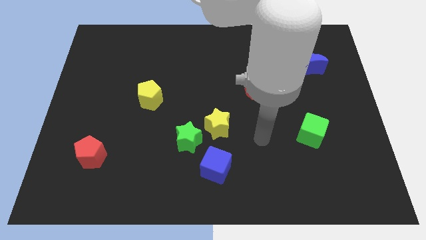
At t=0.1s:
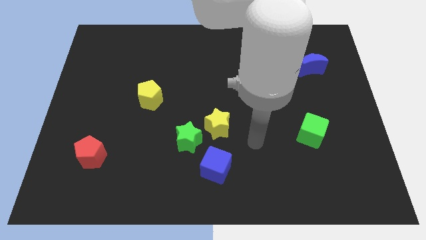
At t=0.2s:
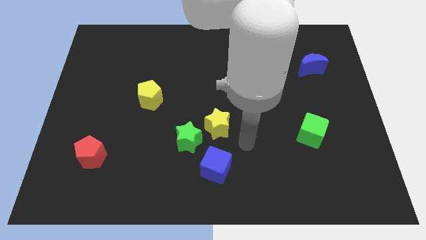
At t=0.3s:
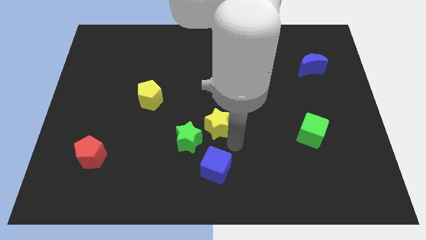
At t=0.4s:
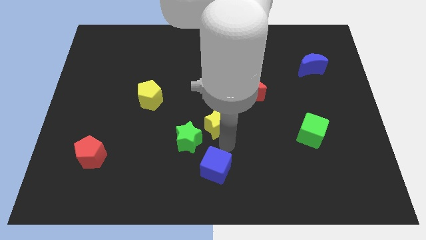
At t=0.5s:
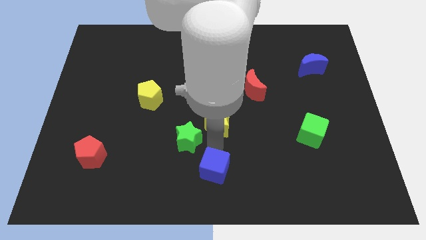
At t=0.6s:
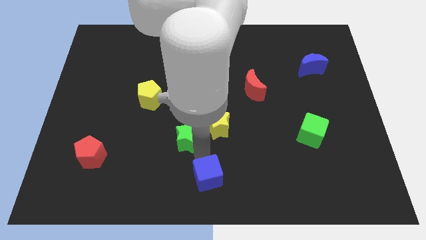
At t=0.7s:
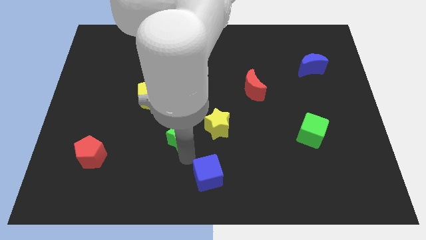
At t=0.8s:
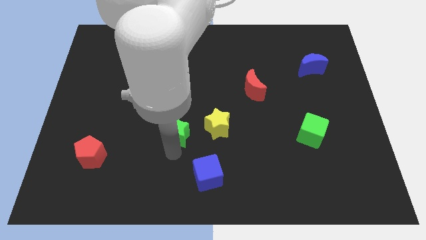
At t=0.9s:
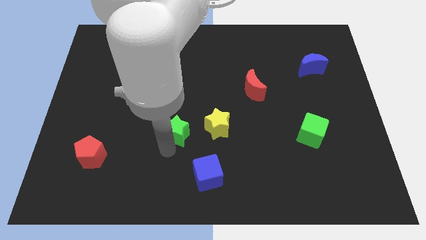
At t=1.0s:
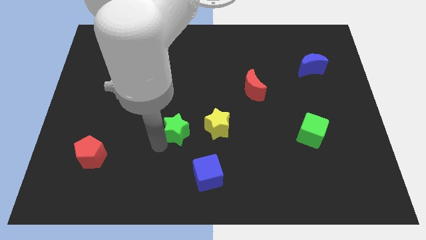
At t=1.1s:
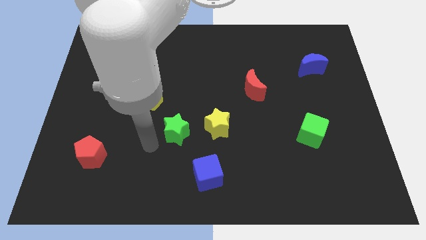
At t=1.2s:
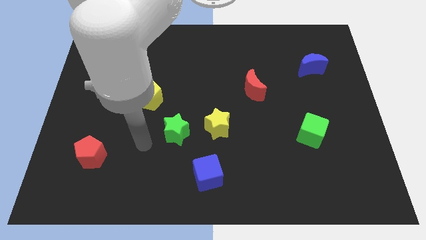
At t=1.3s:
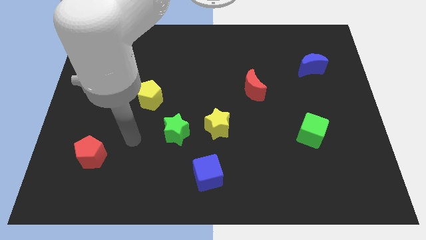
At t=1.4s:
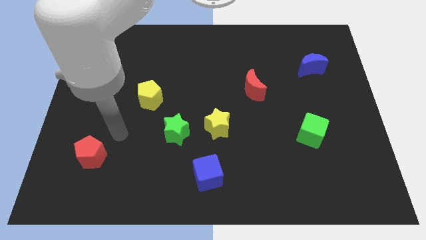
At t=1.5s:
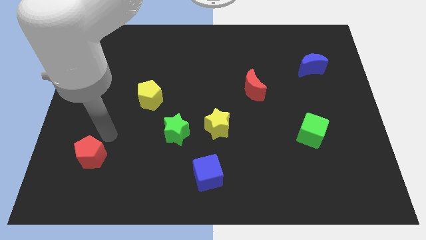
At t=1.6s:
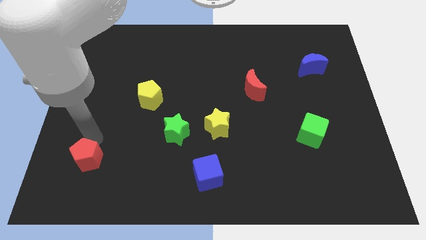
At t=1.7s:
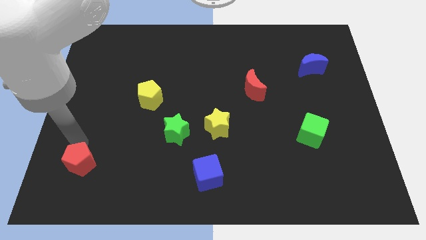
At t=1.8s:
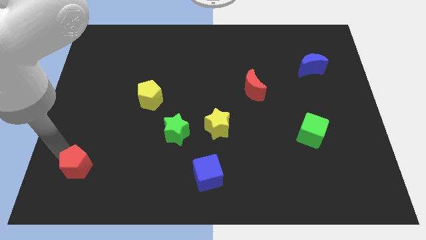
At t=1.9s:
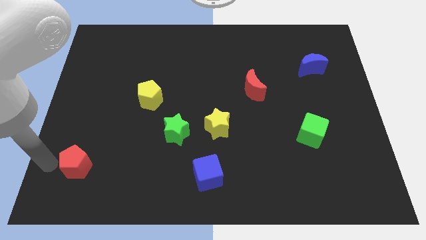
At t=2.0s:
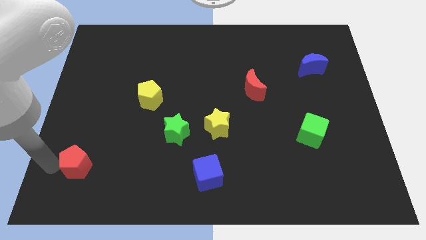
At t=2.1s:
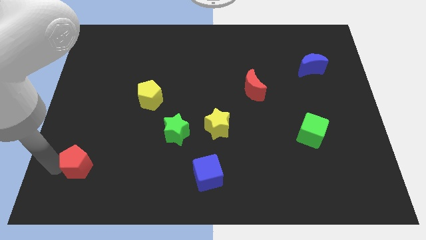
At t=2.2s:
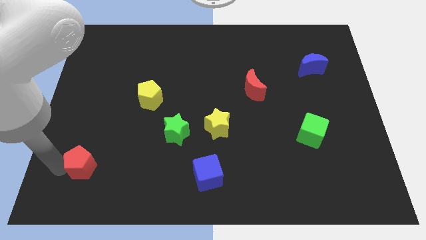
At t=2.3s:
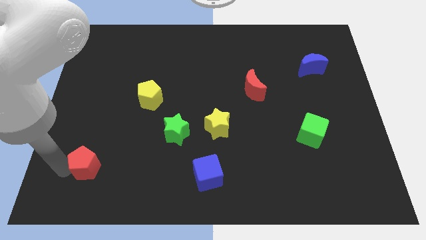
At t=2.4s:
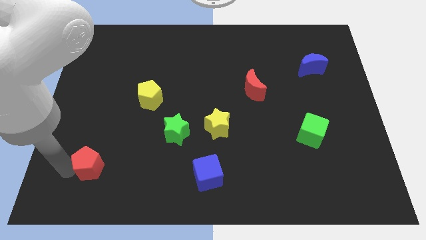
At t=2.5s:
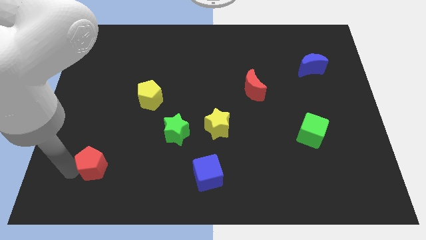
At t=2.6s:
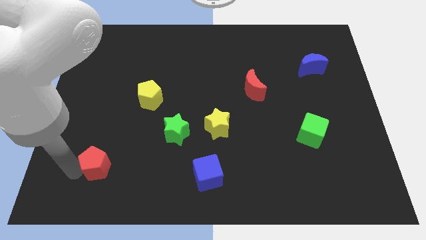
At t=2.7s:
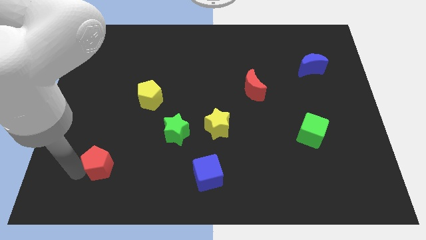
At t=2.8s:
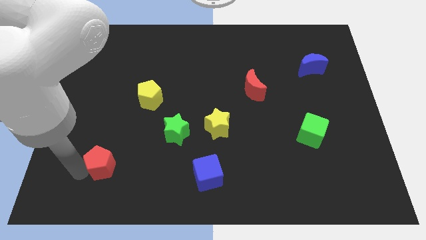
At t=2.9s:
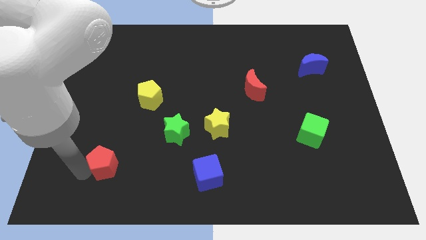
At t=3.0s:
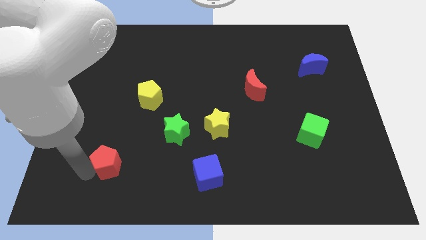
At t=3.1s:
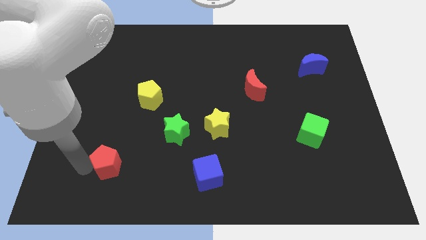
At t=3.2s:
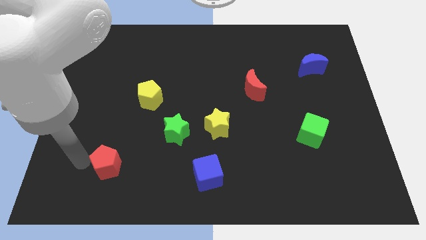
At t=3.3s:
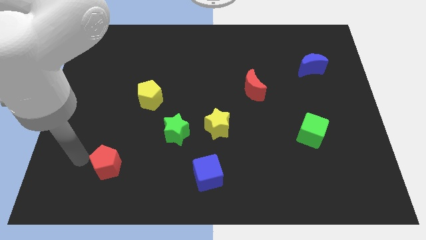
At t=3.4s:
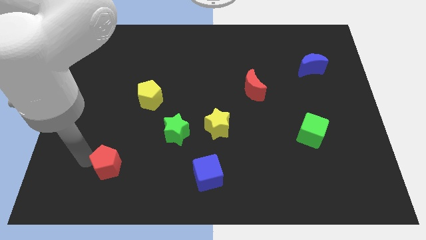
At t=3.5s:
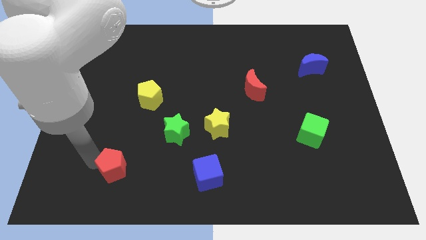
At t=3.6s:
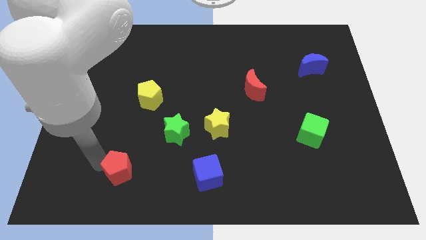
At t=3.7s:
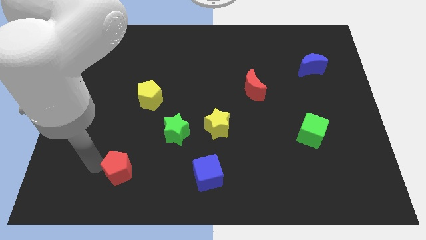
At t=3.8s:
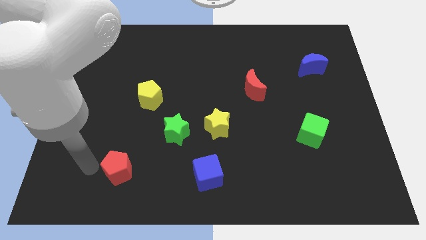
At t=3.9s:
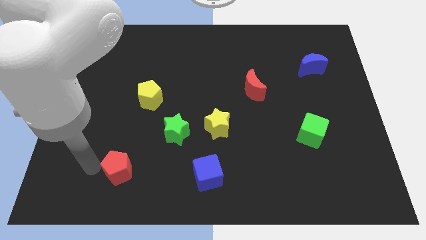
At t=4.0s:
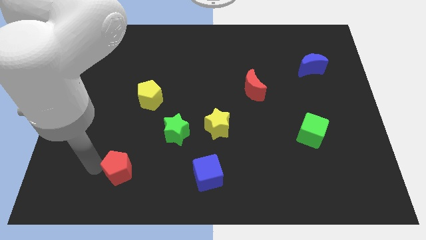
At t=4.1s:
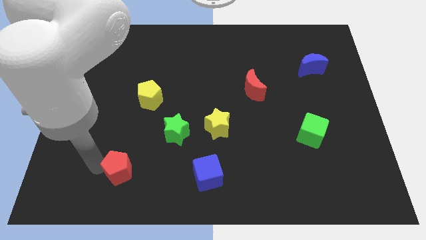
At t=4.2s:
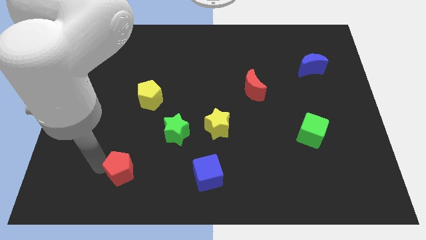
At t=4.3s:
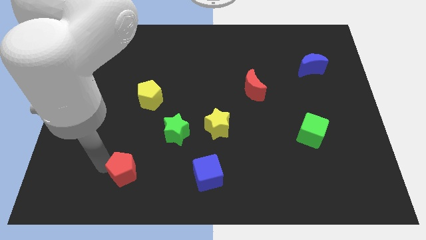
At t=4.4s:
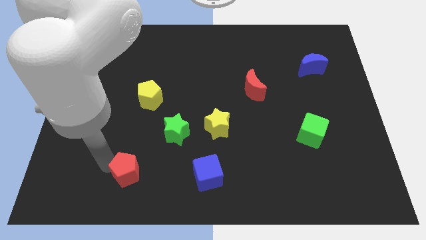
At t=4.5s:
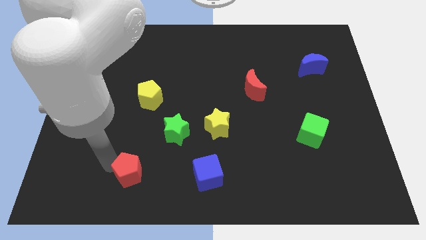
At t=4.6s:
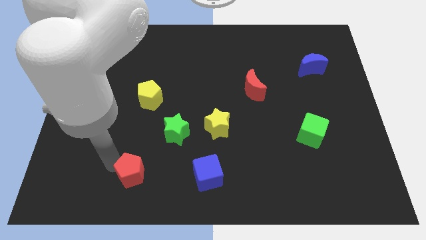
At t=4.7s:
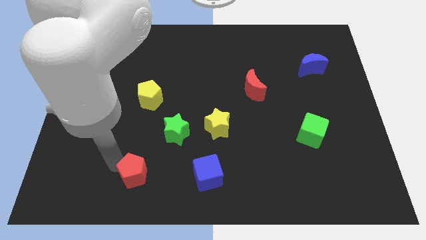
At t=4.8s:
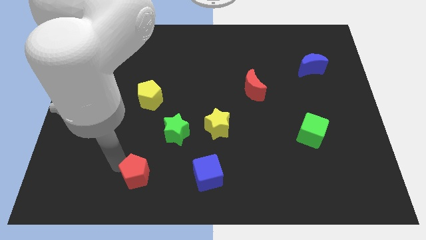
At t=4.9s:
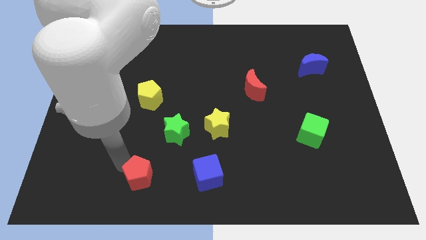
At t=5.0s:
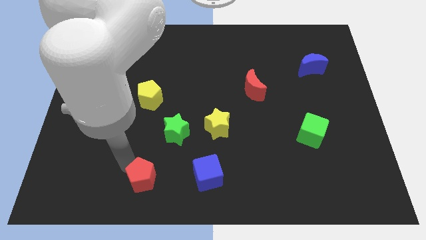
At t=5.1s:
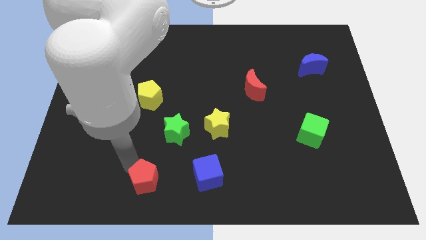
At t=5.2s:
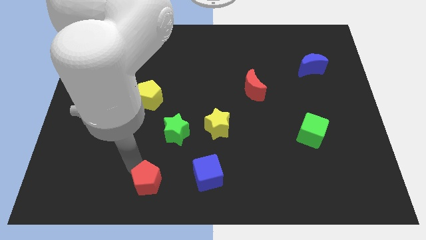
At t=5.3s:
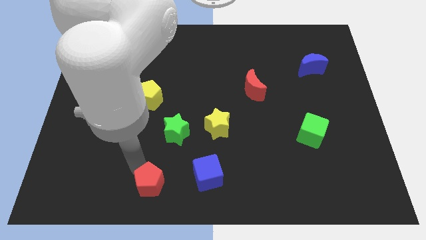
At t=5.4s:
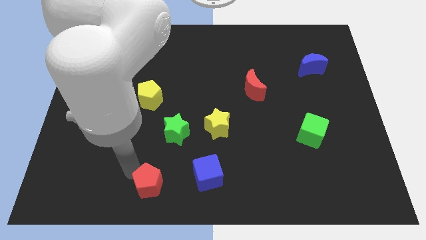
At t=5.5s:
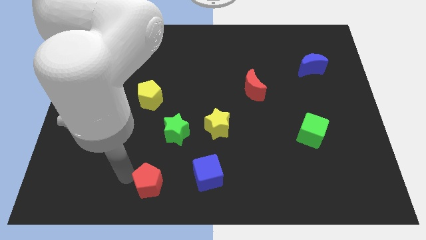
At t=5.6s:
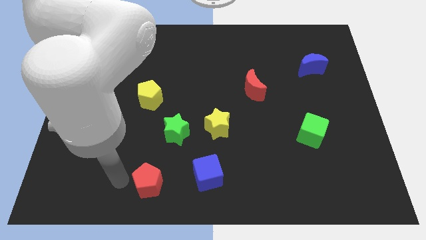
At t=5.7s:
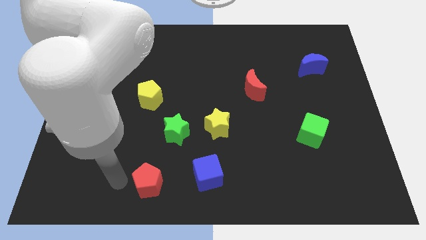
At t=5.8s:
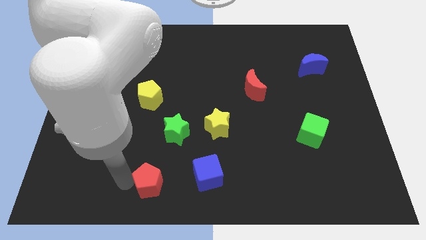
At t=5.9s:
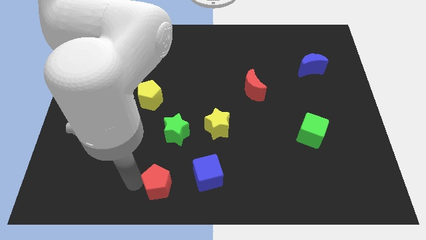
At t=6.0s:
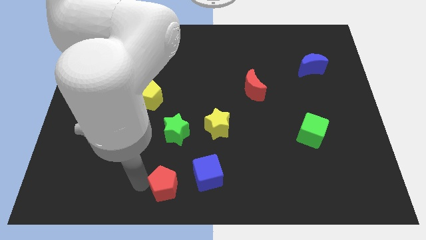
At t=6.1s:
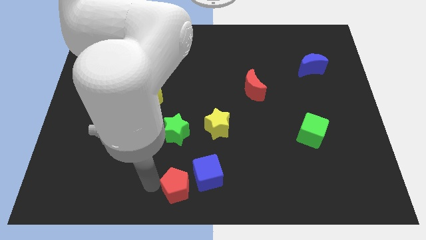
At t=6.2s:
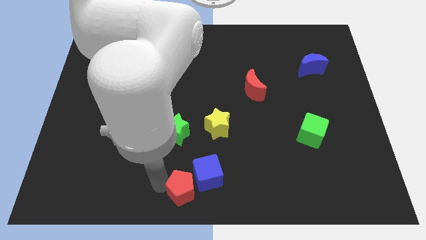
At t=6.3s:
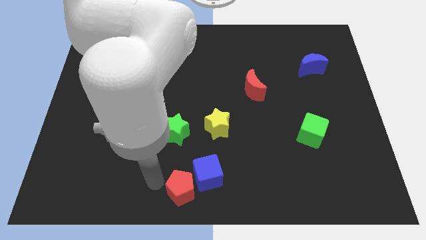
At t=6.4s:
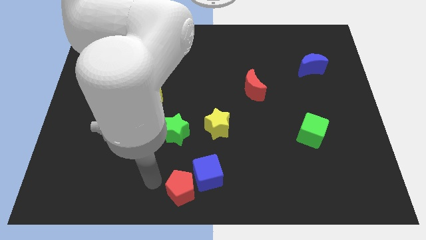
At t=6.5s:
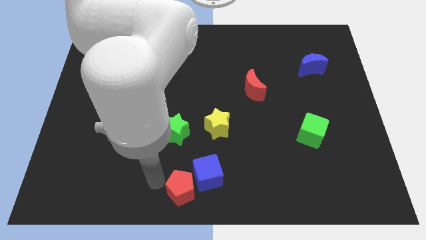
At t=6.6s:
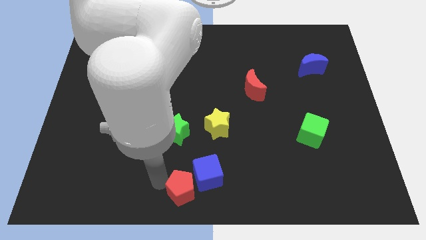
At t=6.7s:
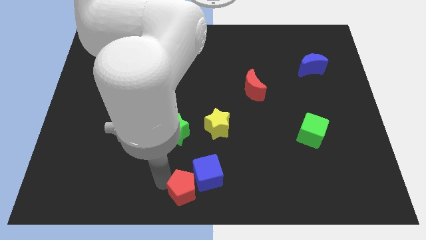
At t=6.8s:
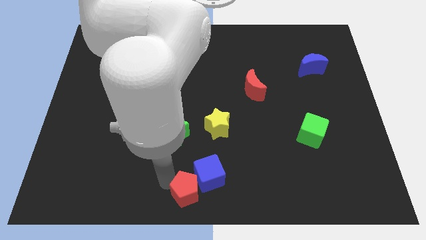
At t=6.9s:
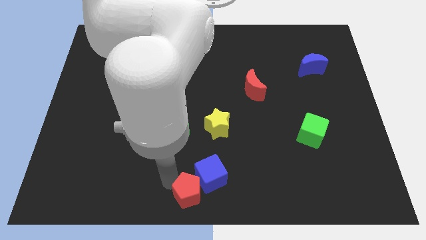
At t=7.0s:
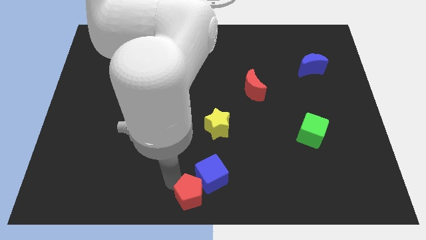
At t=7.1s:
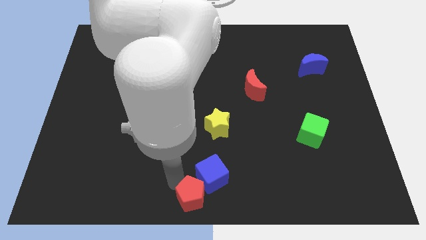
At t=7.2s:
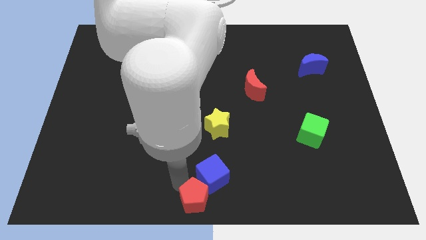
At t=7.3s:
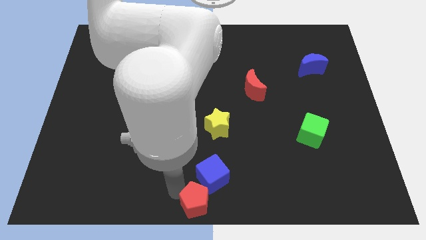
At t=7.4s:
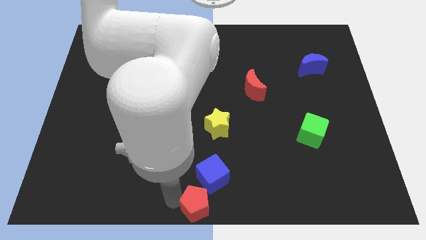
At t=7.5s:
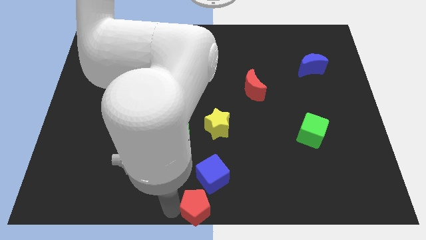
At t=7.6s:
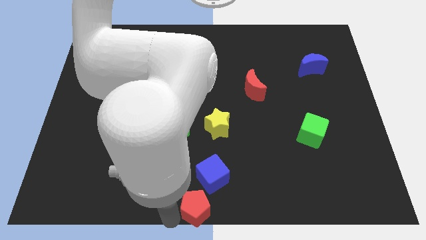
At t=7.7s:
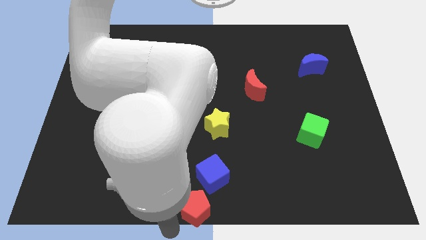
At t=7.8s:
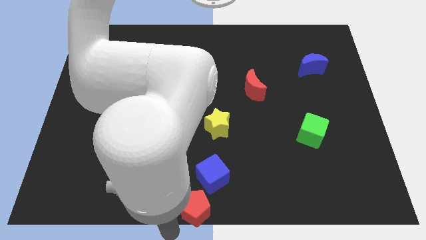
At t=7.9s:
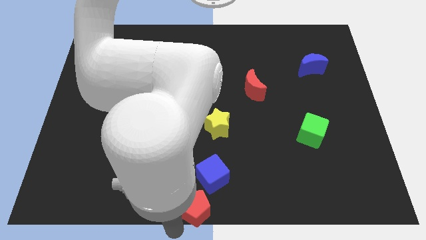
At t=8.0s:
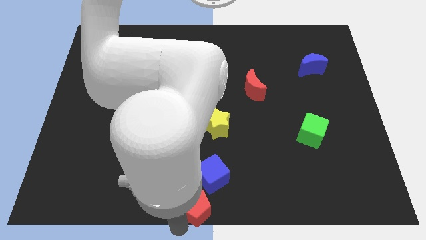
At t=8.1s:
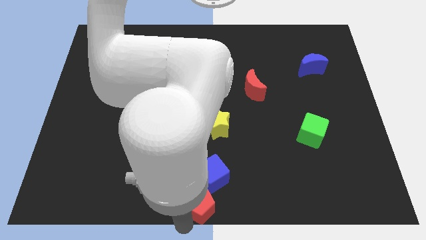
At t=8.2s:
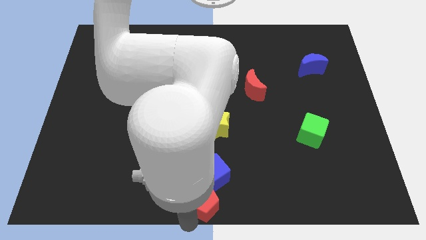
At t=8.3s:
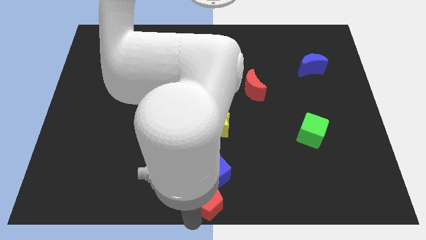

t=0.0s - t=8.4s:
push the red pentagon right
